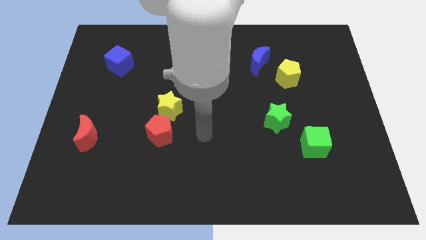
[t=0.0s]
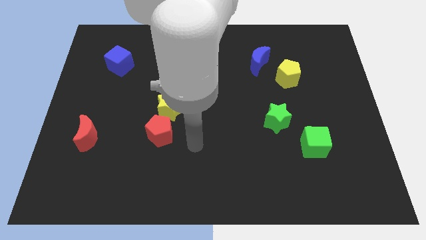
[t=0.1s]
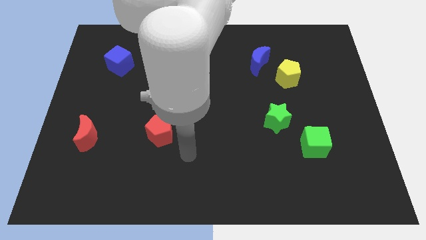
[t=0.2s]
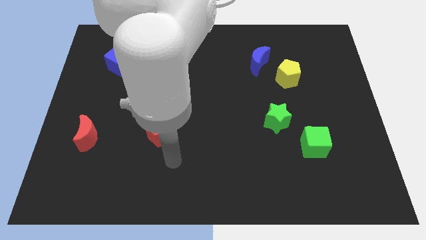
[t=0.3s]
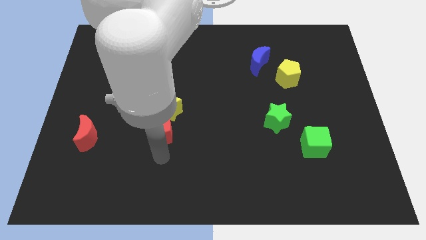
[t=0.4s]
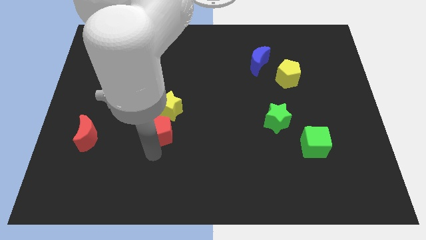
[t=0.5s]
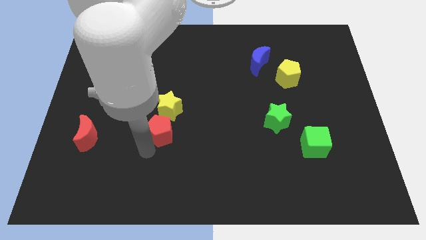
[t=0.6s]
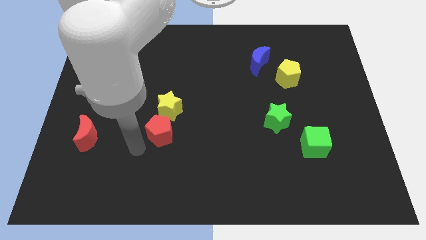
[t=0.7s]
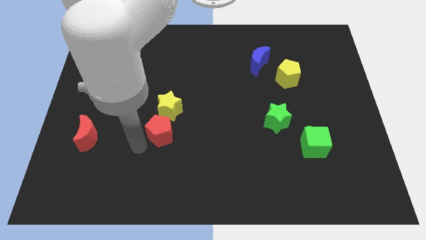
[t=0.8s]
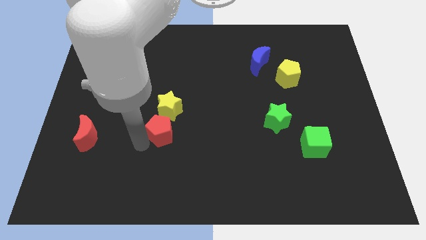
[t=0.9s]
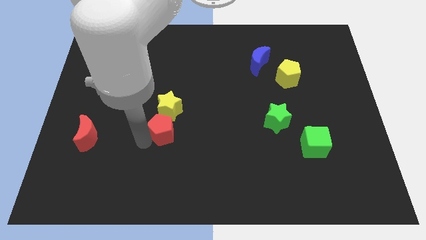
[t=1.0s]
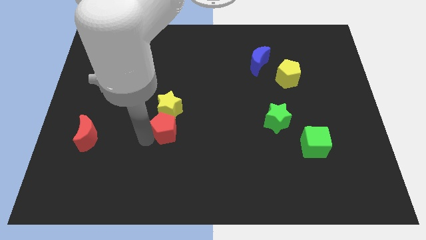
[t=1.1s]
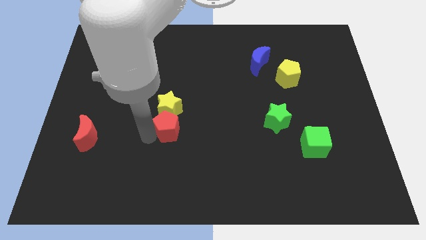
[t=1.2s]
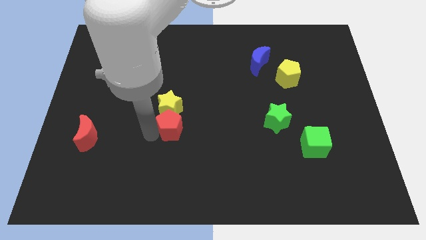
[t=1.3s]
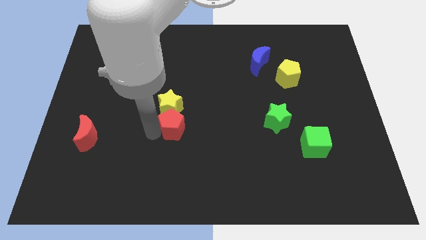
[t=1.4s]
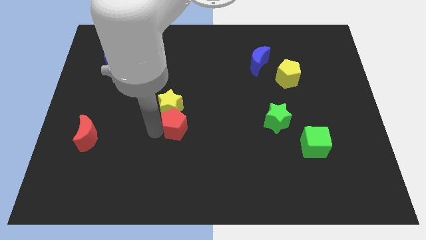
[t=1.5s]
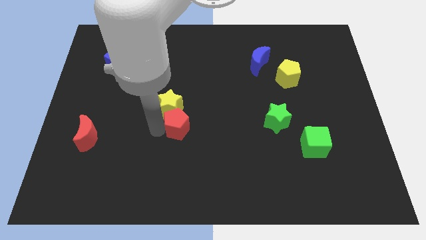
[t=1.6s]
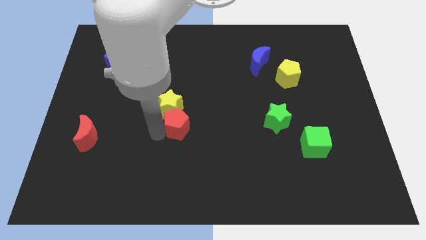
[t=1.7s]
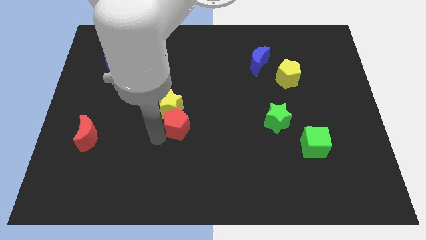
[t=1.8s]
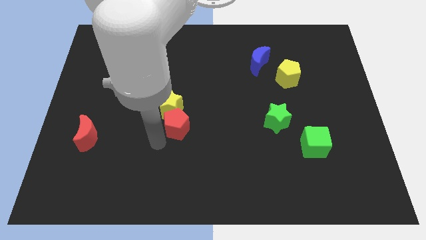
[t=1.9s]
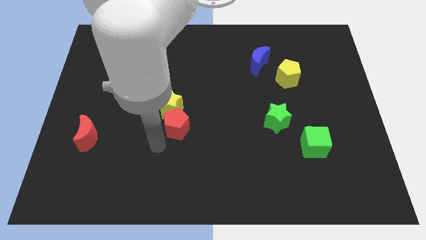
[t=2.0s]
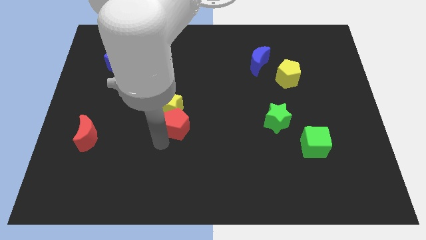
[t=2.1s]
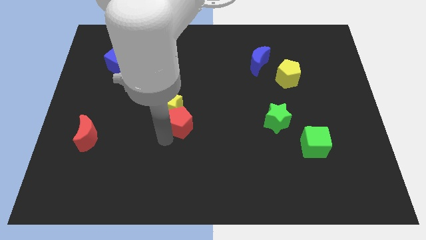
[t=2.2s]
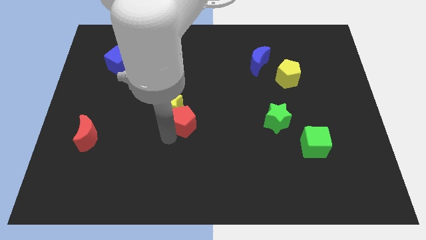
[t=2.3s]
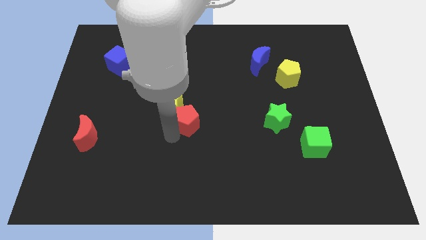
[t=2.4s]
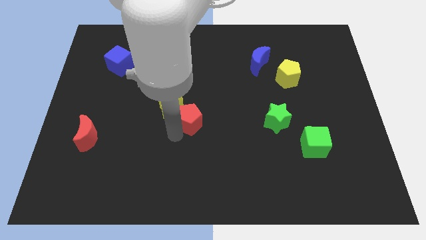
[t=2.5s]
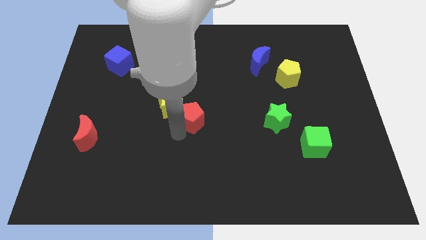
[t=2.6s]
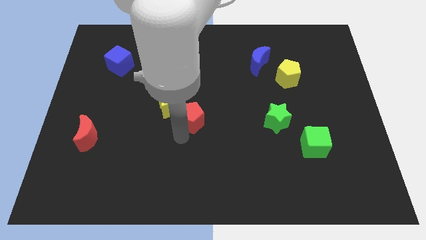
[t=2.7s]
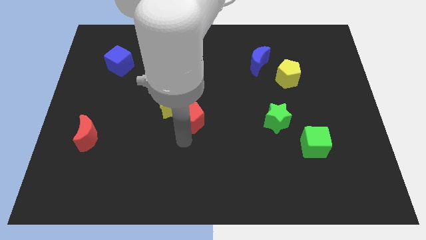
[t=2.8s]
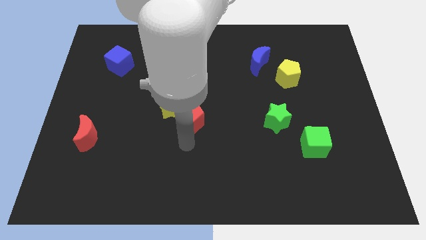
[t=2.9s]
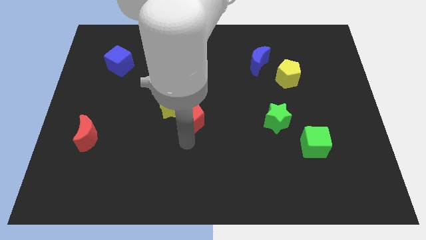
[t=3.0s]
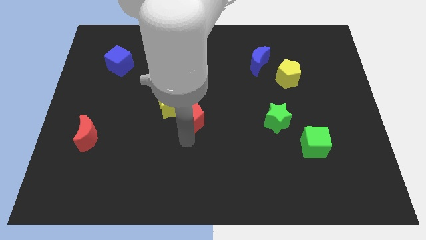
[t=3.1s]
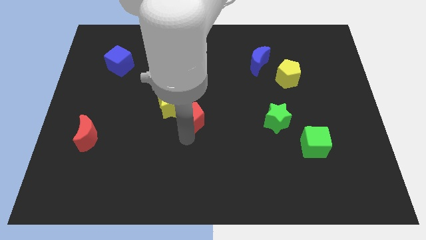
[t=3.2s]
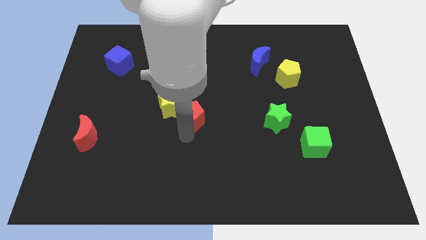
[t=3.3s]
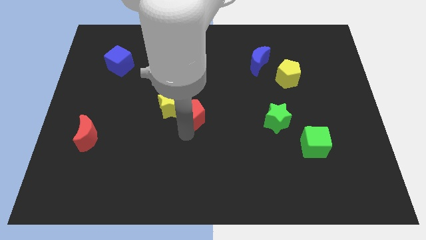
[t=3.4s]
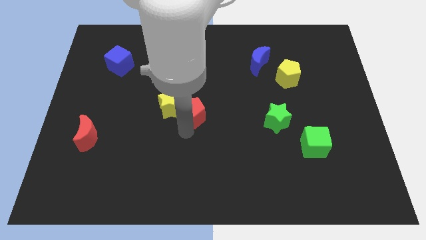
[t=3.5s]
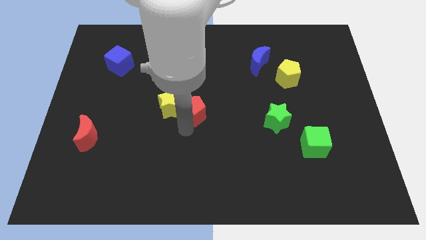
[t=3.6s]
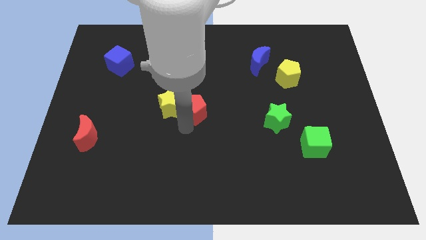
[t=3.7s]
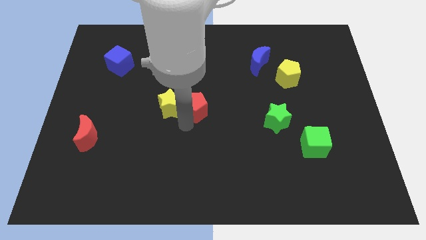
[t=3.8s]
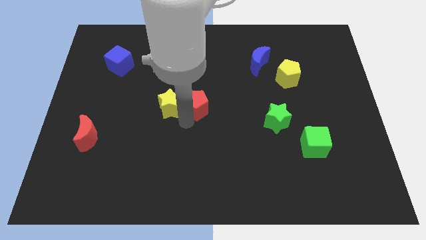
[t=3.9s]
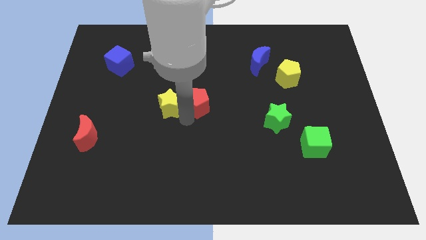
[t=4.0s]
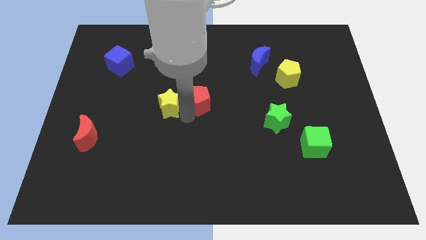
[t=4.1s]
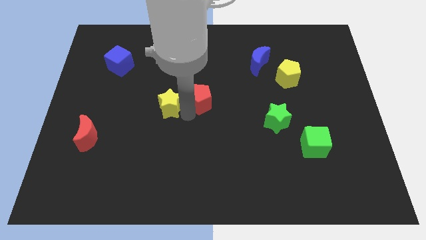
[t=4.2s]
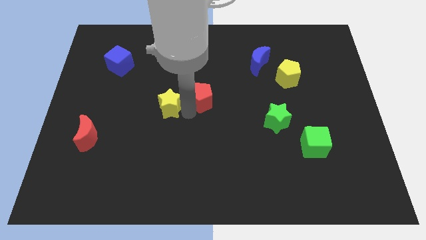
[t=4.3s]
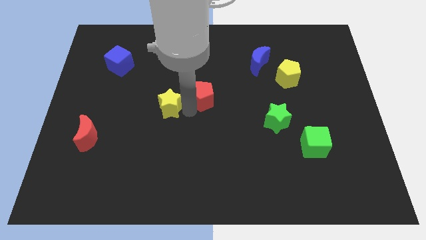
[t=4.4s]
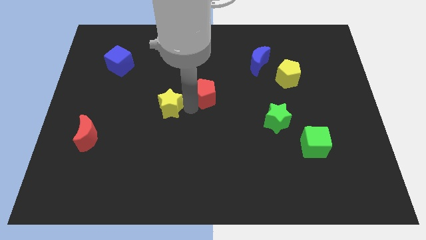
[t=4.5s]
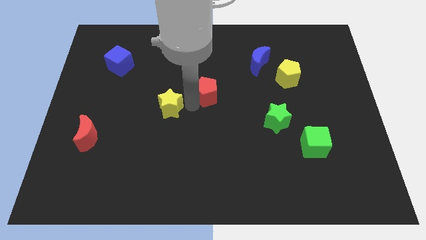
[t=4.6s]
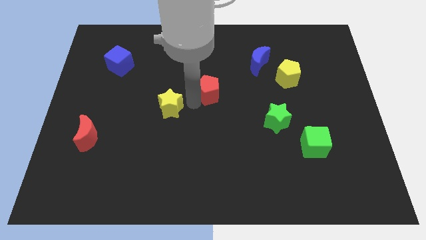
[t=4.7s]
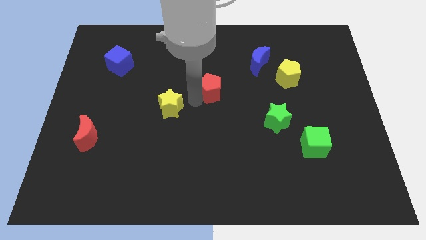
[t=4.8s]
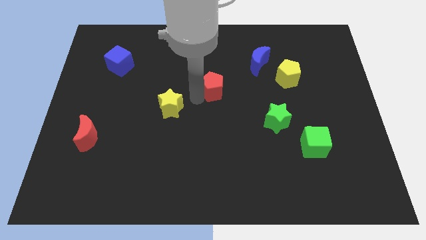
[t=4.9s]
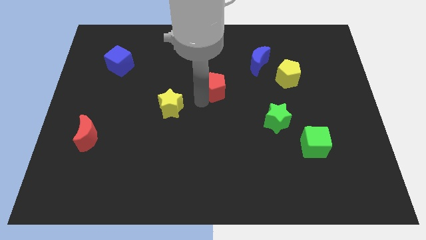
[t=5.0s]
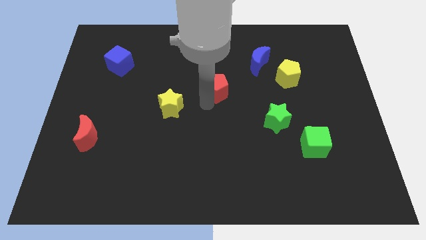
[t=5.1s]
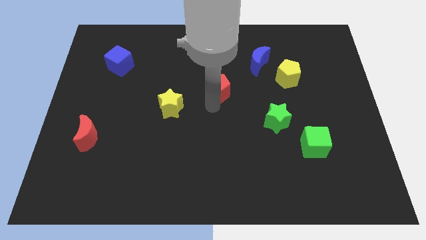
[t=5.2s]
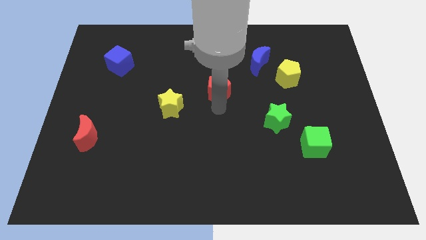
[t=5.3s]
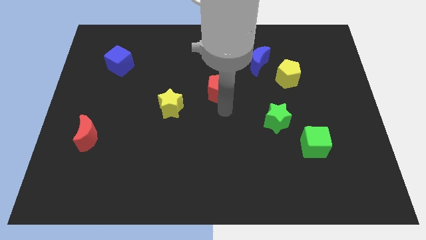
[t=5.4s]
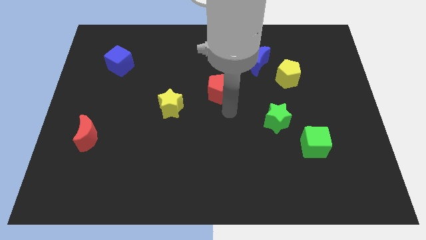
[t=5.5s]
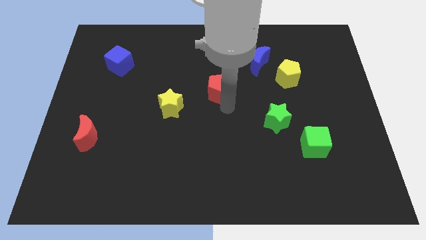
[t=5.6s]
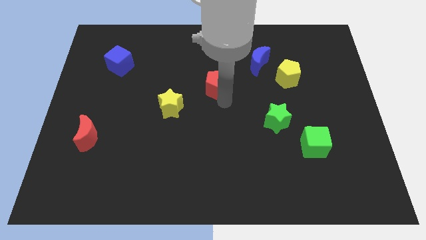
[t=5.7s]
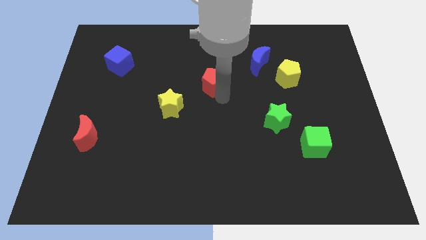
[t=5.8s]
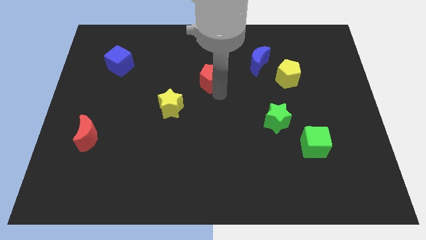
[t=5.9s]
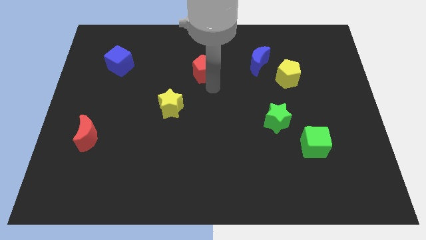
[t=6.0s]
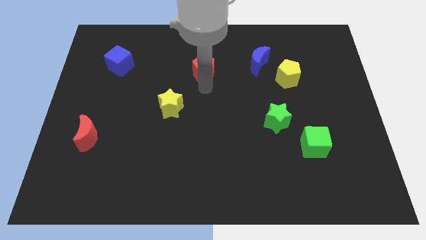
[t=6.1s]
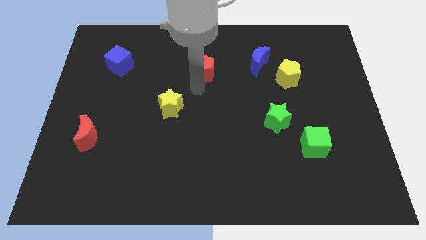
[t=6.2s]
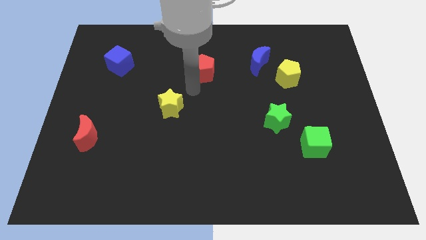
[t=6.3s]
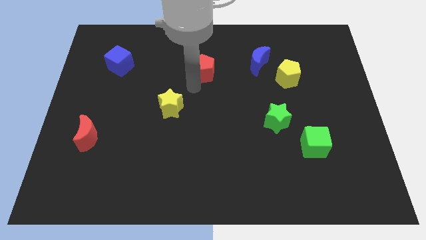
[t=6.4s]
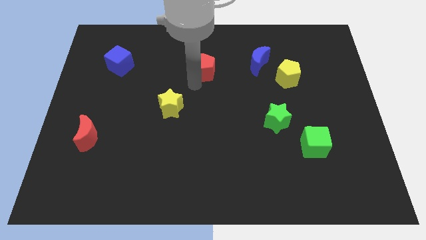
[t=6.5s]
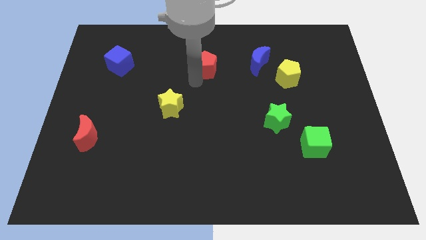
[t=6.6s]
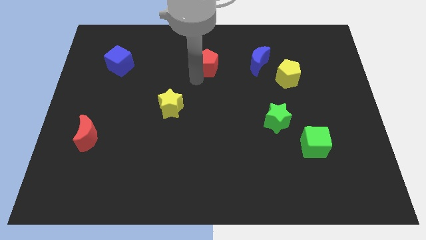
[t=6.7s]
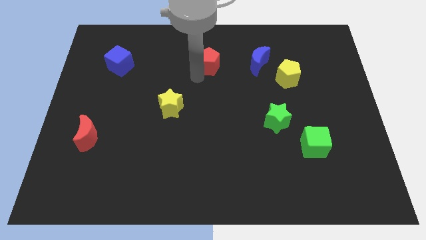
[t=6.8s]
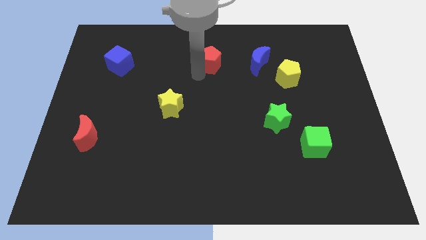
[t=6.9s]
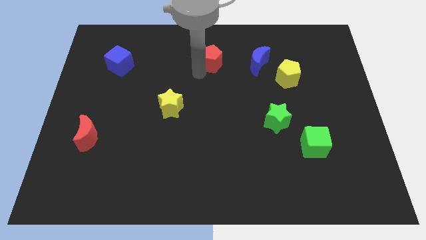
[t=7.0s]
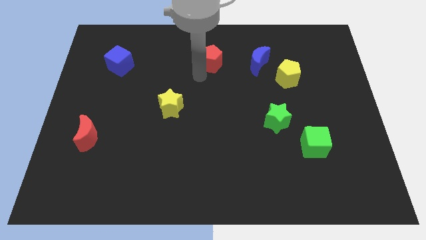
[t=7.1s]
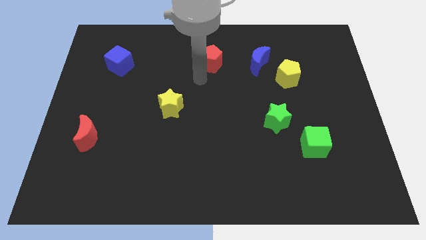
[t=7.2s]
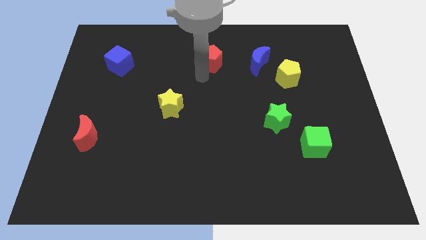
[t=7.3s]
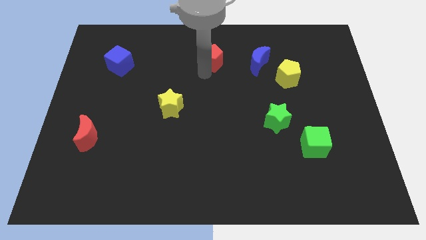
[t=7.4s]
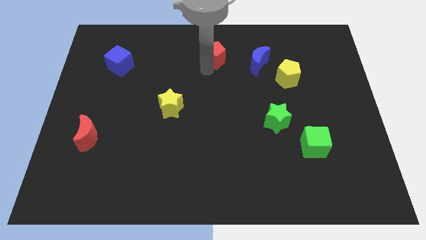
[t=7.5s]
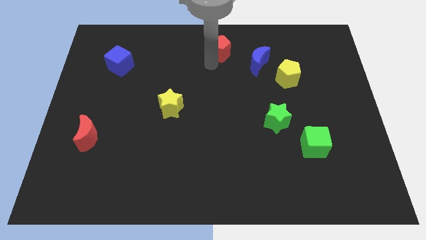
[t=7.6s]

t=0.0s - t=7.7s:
push the red pentagon to the towards your base
